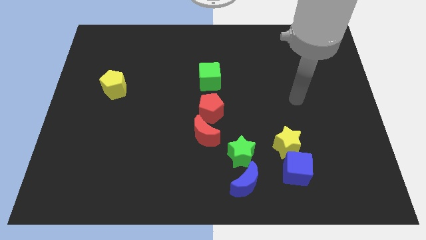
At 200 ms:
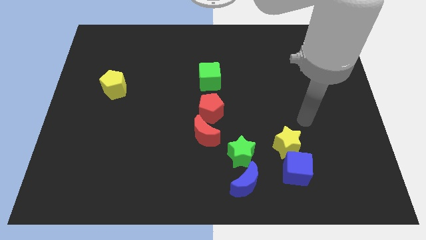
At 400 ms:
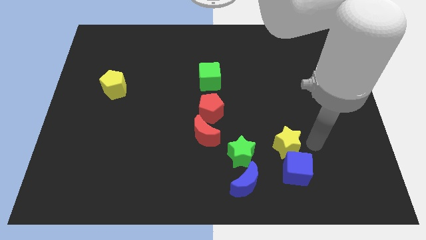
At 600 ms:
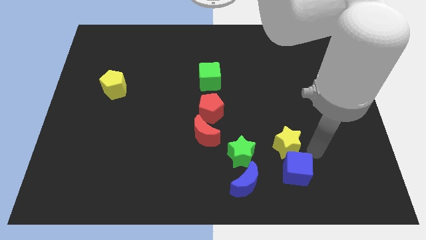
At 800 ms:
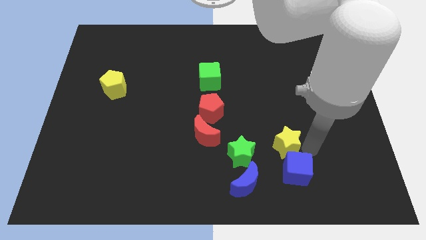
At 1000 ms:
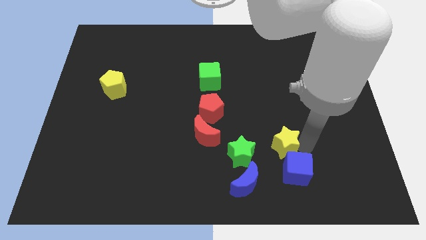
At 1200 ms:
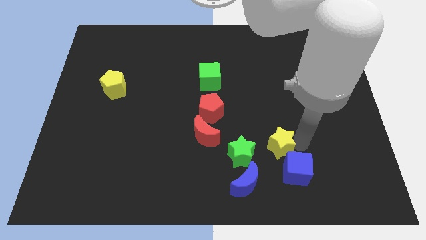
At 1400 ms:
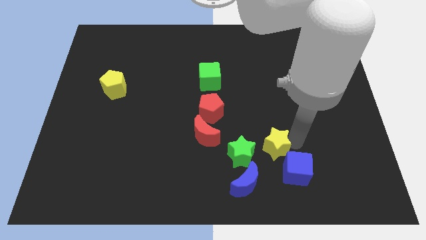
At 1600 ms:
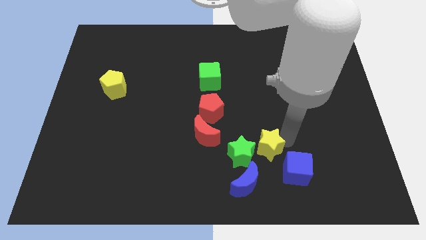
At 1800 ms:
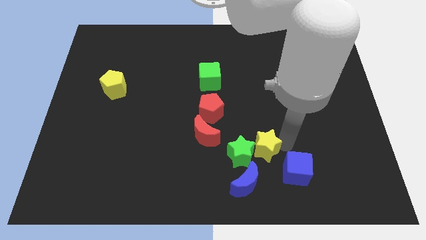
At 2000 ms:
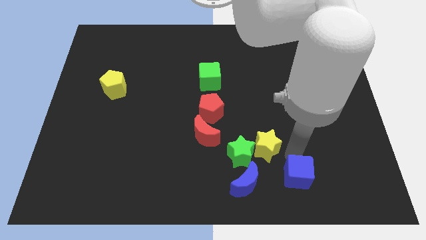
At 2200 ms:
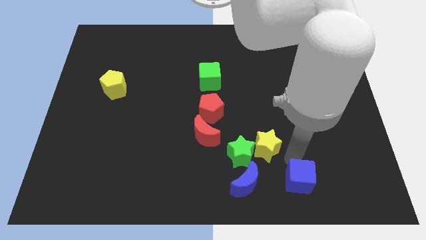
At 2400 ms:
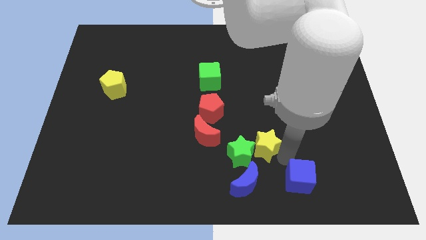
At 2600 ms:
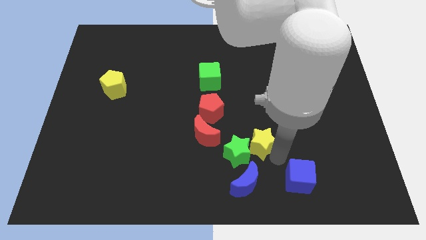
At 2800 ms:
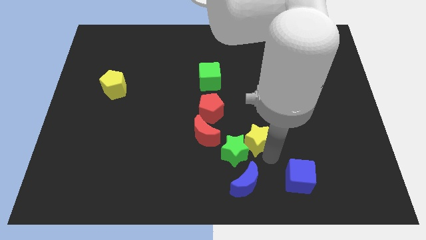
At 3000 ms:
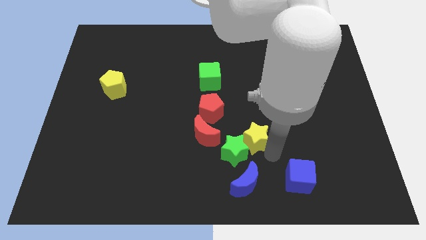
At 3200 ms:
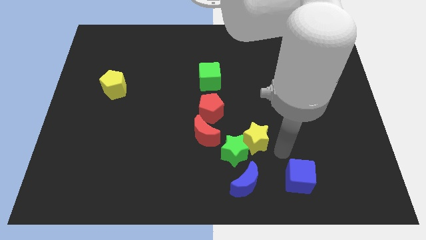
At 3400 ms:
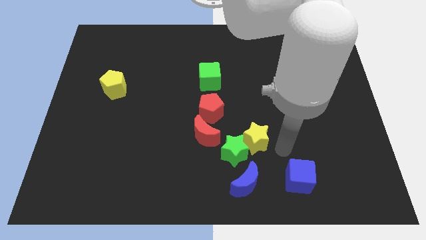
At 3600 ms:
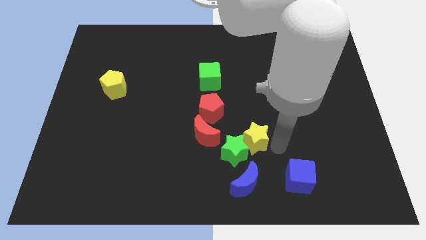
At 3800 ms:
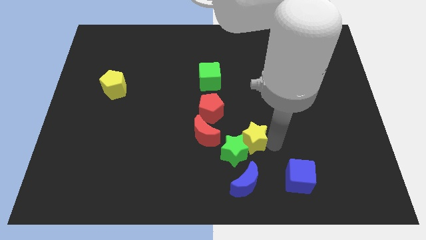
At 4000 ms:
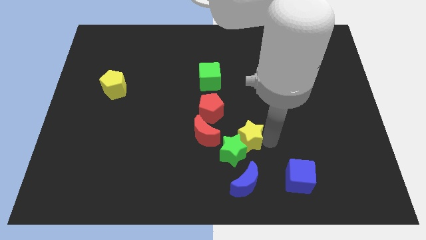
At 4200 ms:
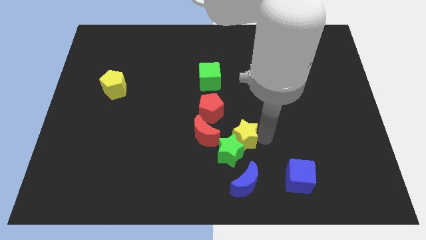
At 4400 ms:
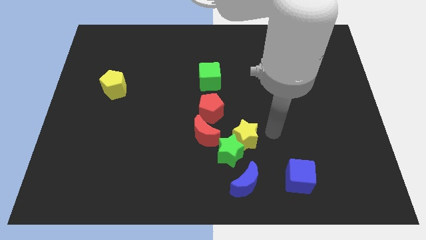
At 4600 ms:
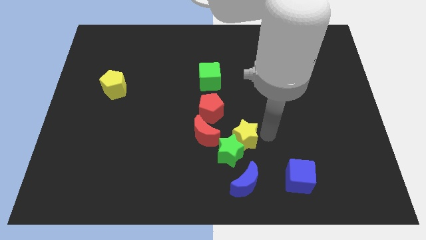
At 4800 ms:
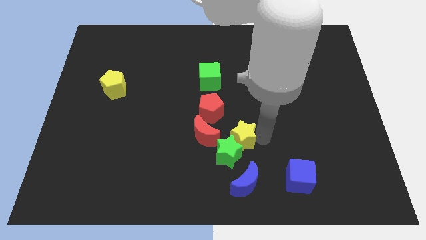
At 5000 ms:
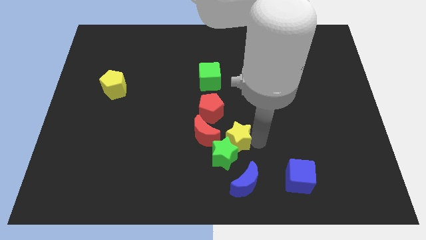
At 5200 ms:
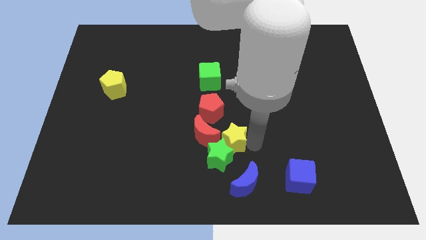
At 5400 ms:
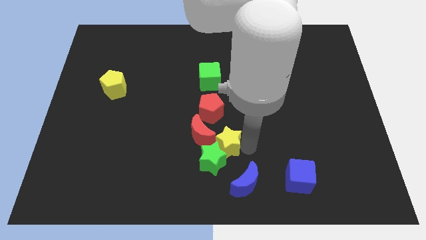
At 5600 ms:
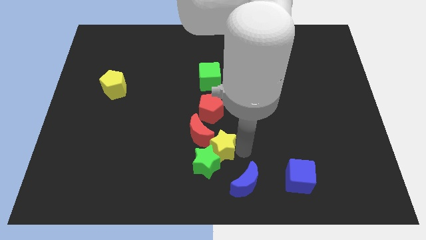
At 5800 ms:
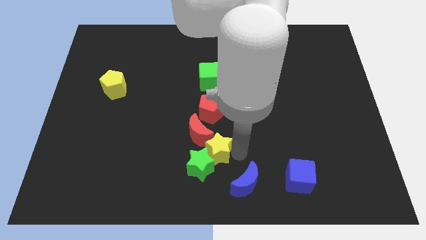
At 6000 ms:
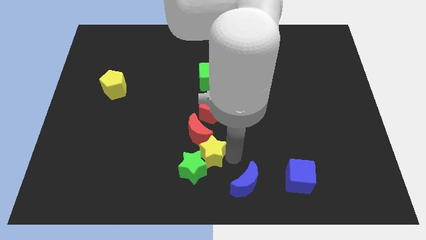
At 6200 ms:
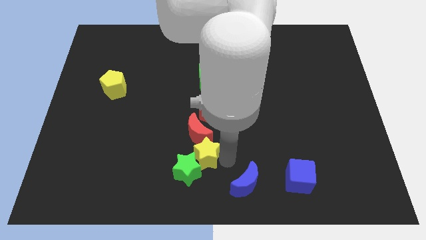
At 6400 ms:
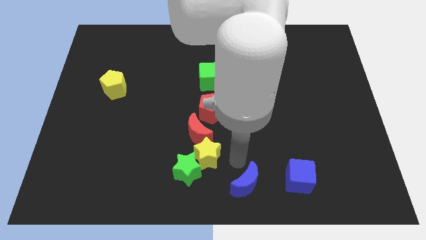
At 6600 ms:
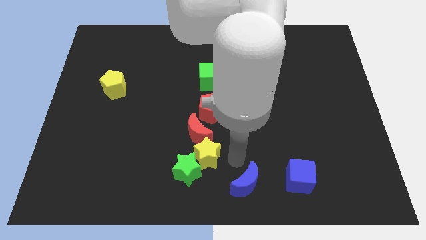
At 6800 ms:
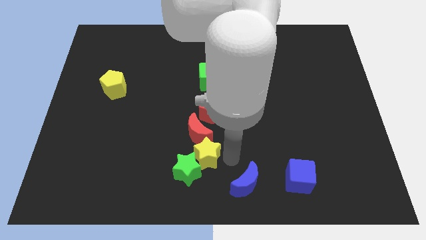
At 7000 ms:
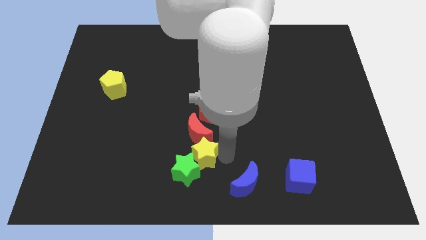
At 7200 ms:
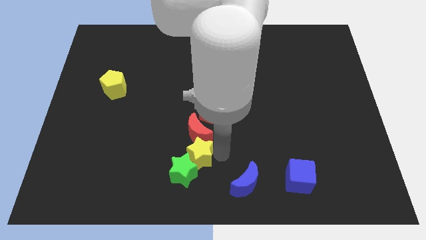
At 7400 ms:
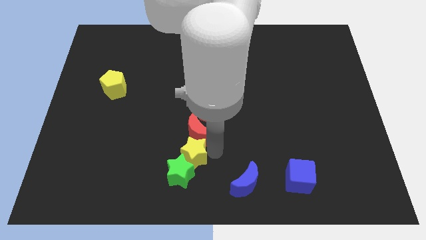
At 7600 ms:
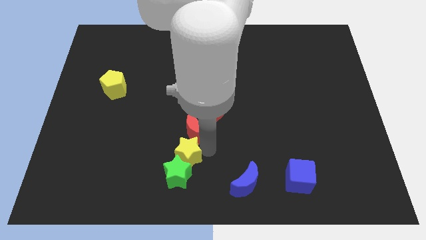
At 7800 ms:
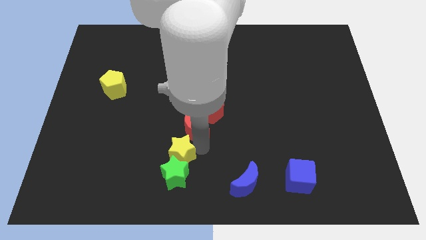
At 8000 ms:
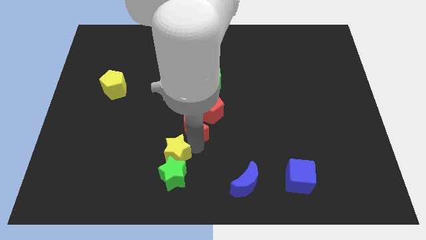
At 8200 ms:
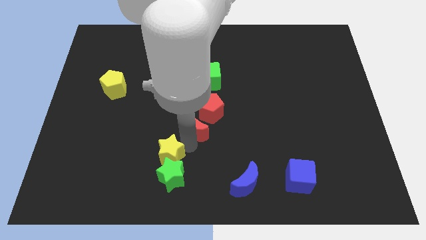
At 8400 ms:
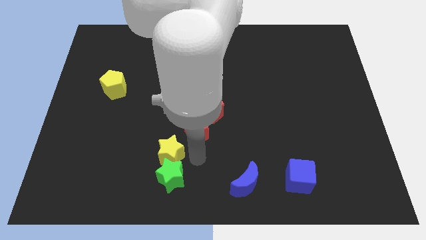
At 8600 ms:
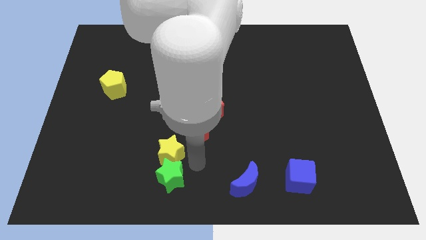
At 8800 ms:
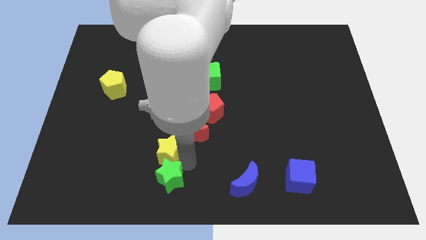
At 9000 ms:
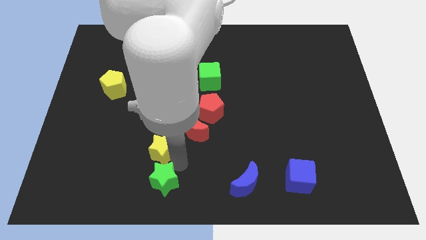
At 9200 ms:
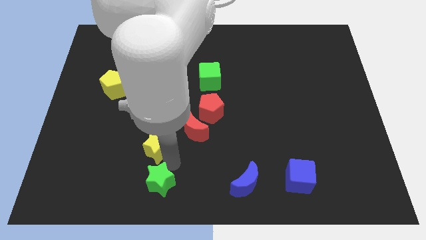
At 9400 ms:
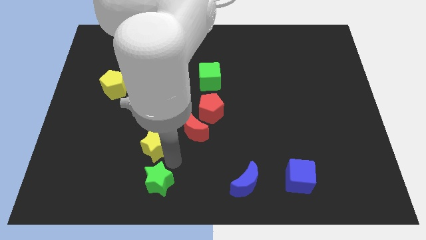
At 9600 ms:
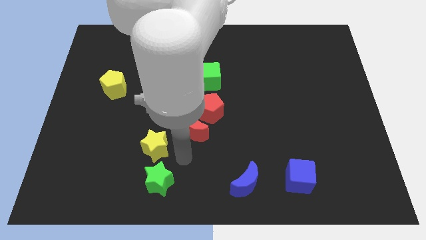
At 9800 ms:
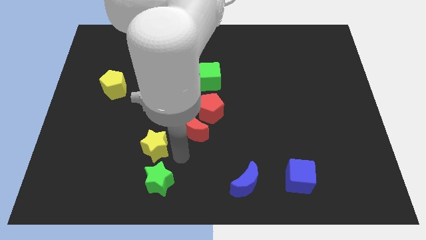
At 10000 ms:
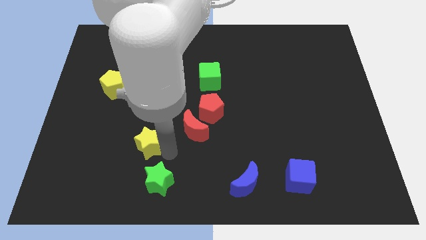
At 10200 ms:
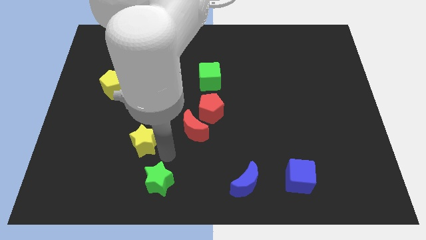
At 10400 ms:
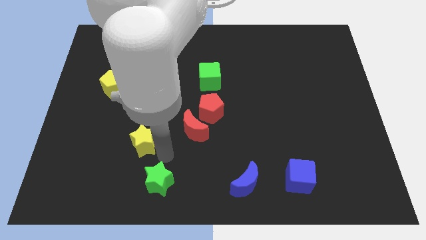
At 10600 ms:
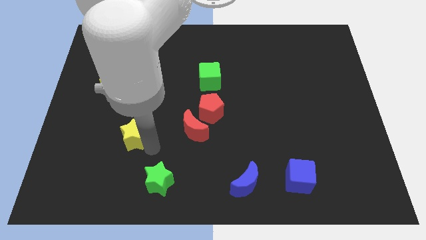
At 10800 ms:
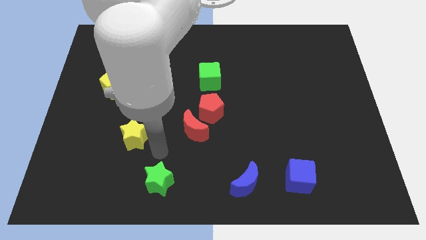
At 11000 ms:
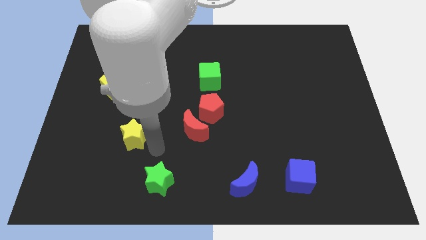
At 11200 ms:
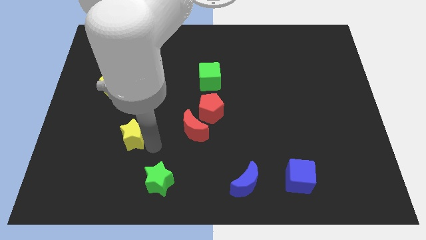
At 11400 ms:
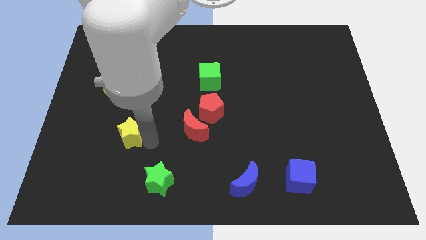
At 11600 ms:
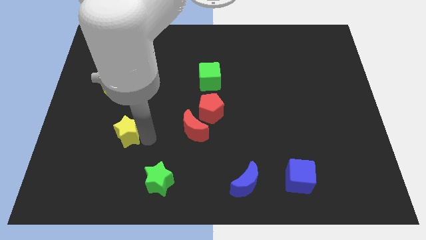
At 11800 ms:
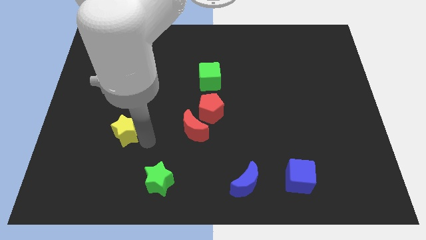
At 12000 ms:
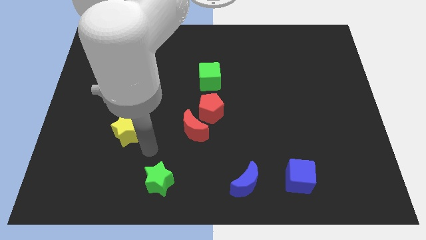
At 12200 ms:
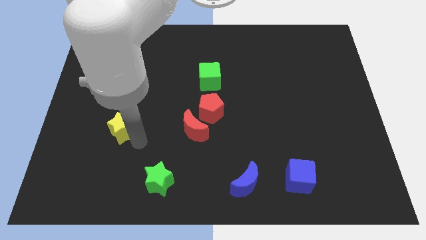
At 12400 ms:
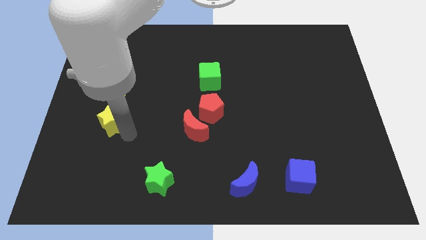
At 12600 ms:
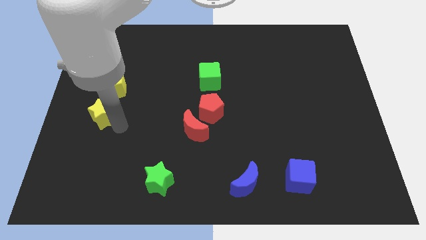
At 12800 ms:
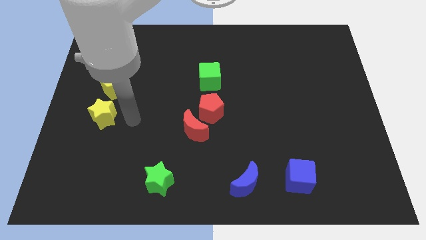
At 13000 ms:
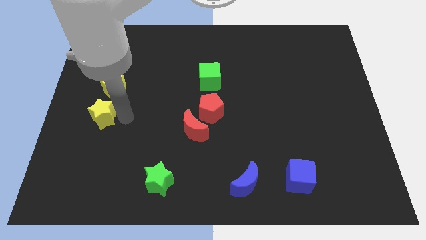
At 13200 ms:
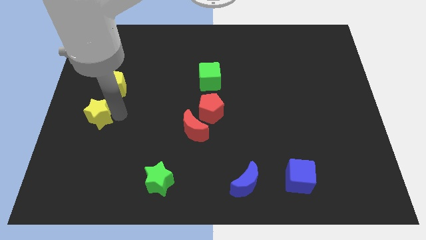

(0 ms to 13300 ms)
push the yellow star to the left side of the board
